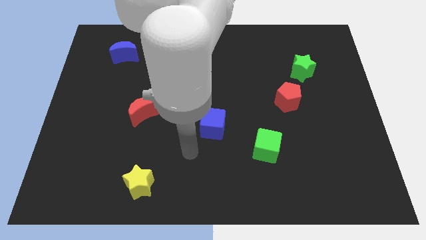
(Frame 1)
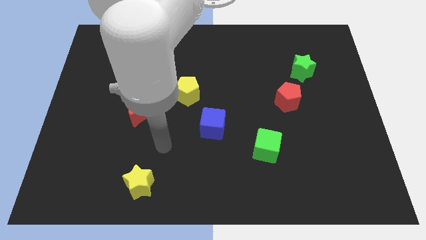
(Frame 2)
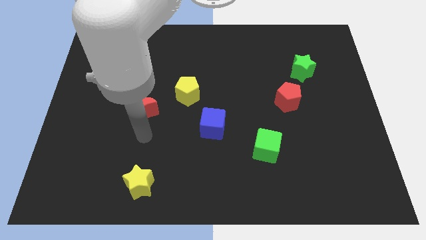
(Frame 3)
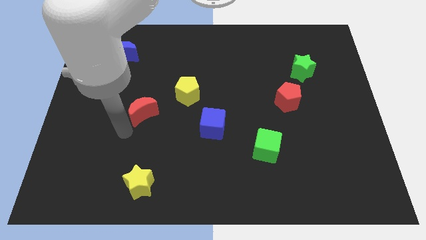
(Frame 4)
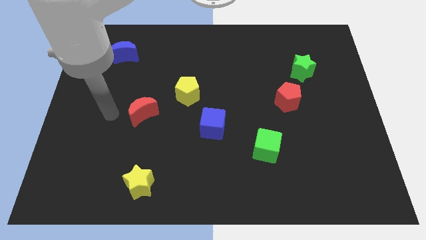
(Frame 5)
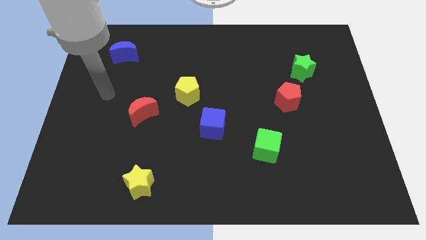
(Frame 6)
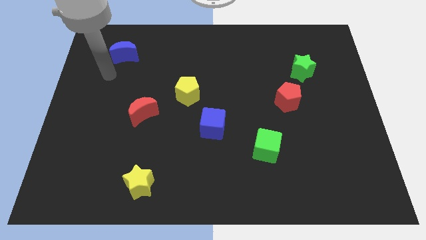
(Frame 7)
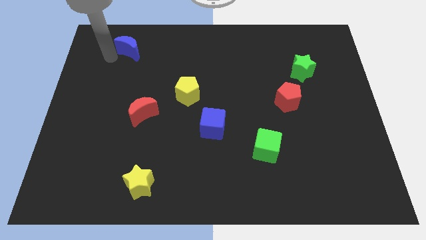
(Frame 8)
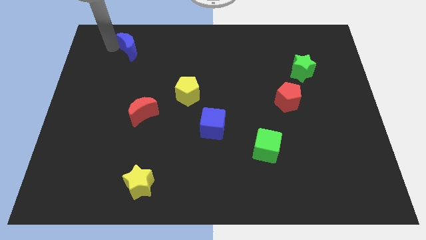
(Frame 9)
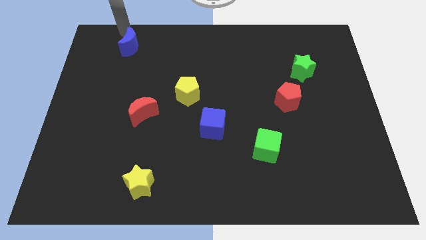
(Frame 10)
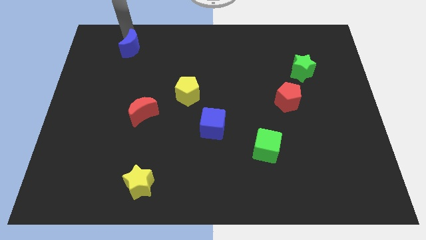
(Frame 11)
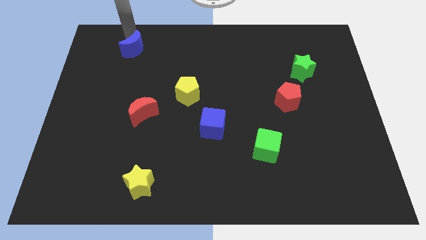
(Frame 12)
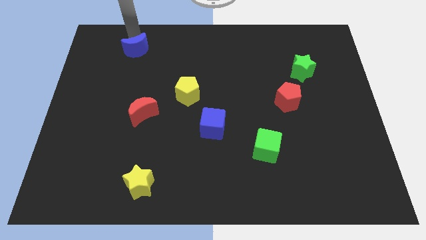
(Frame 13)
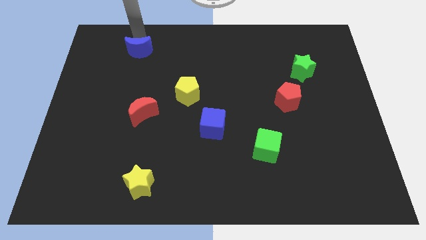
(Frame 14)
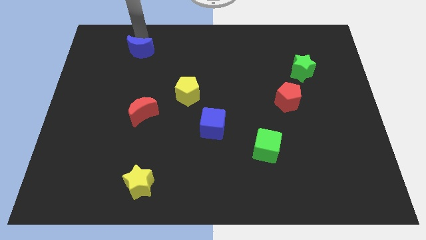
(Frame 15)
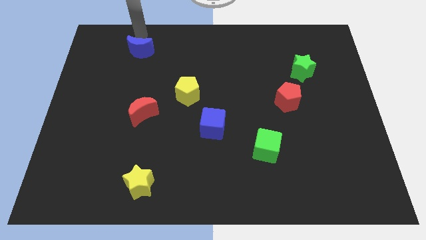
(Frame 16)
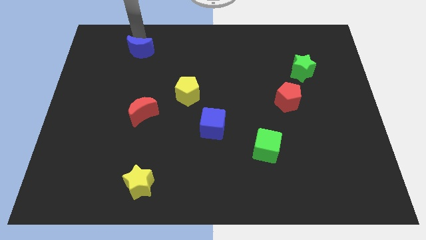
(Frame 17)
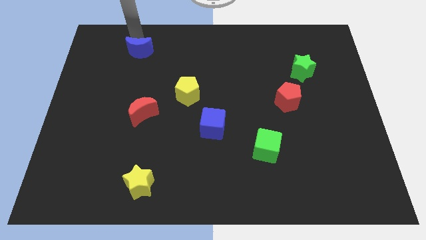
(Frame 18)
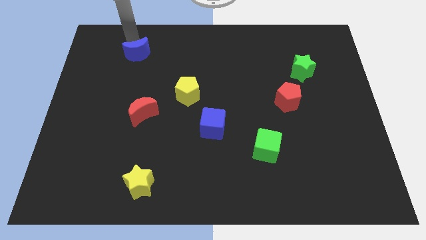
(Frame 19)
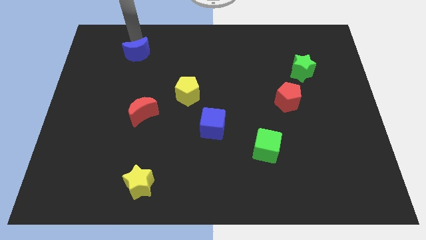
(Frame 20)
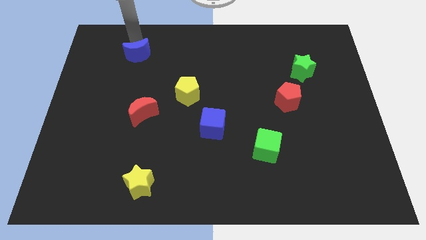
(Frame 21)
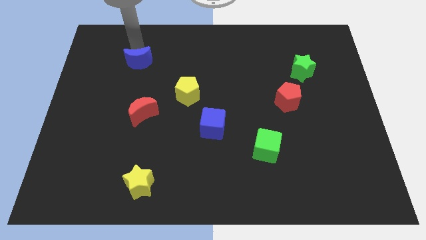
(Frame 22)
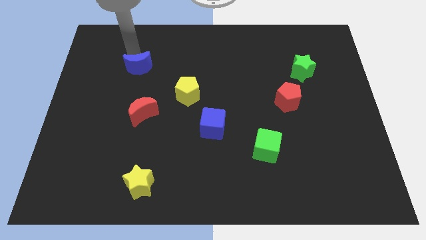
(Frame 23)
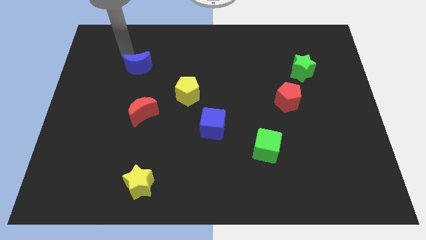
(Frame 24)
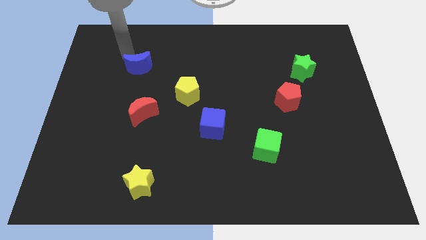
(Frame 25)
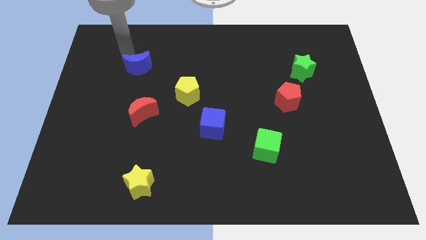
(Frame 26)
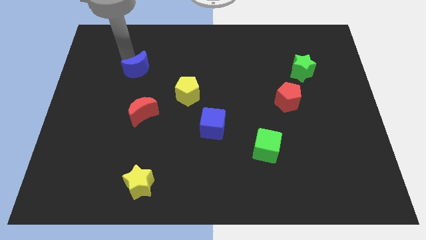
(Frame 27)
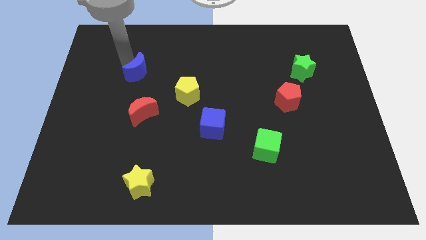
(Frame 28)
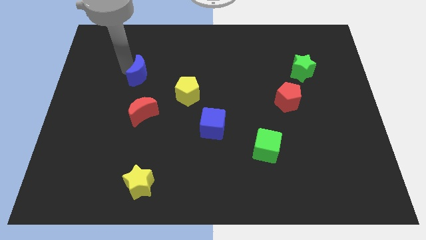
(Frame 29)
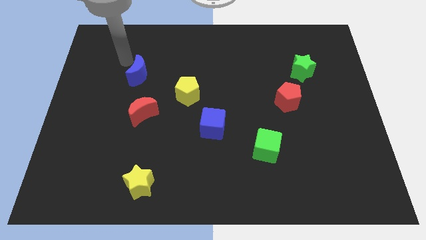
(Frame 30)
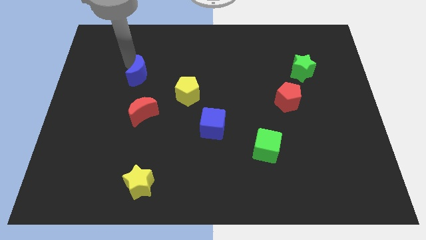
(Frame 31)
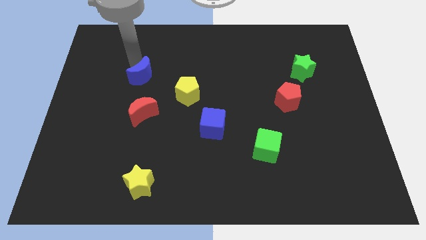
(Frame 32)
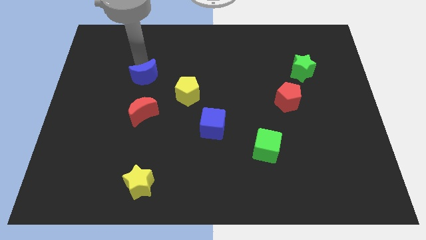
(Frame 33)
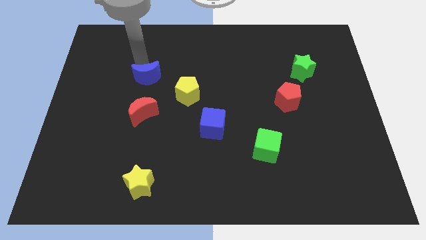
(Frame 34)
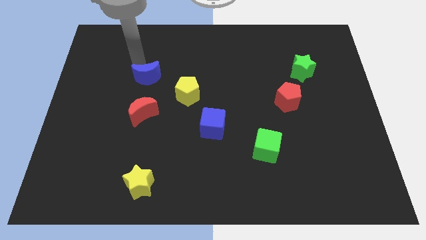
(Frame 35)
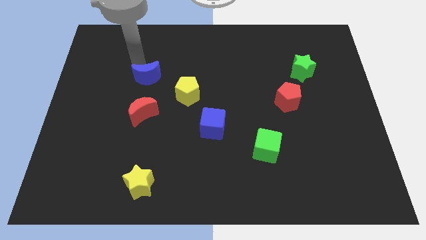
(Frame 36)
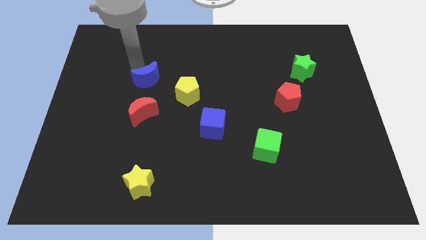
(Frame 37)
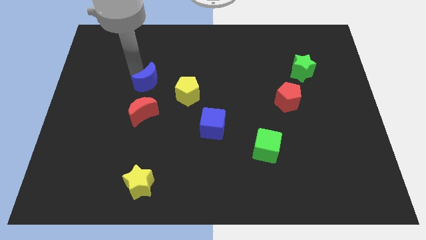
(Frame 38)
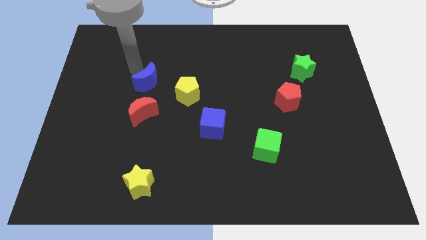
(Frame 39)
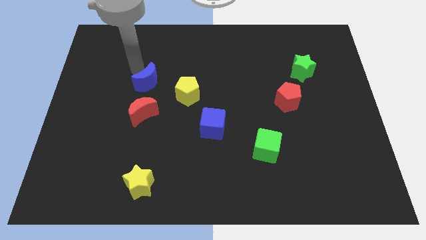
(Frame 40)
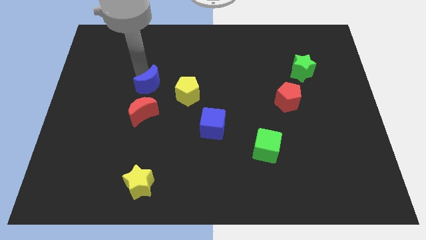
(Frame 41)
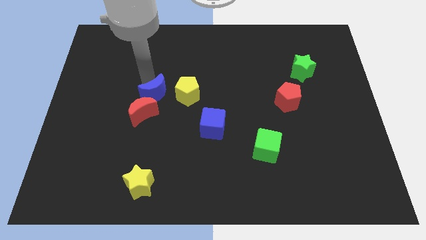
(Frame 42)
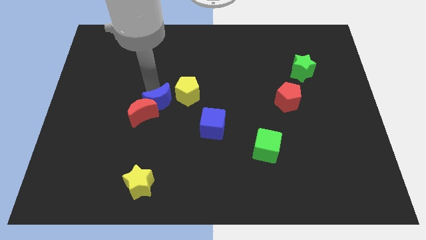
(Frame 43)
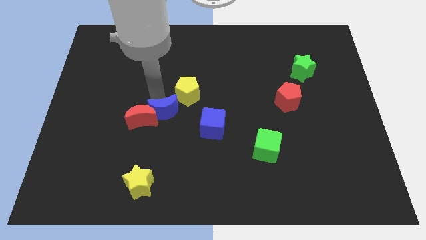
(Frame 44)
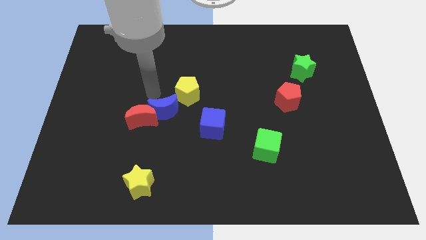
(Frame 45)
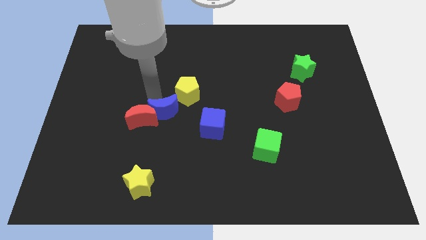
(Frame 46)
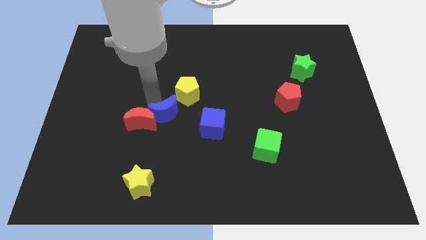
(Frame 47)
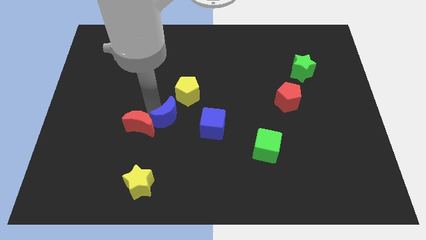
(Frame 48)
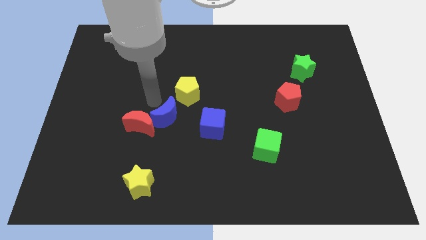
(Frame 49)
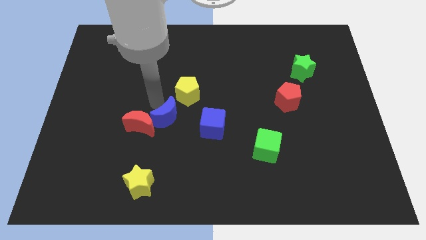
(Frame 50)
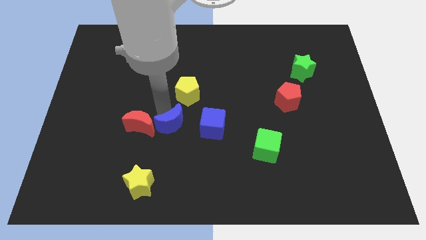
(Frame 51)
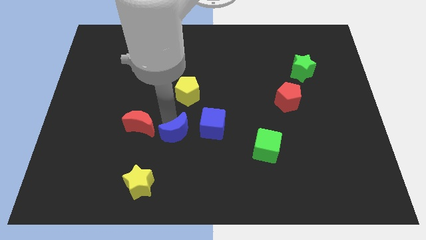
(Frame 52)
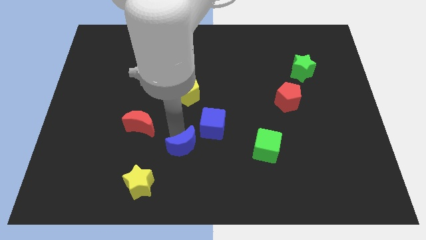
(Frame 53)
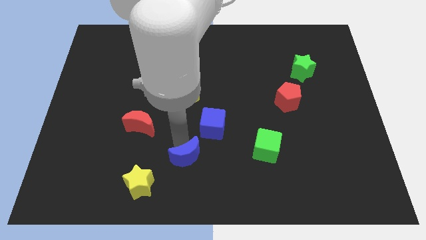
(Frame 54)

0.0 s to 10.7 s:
put the blue moon to the bottom side

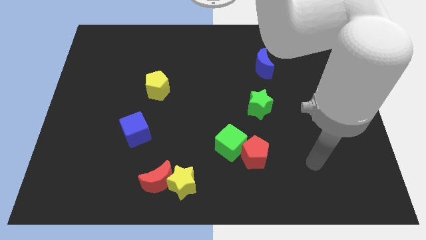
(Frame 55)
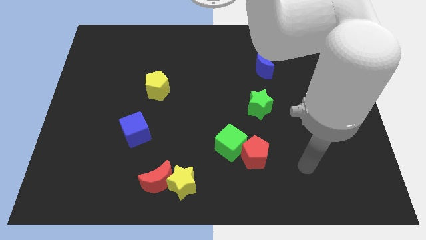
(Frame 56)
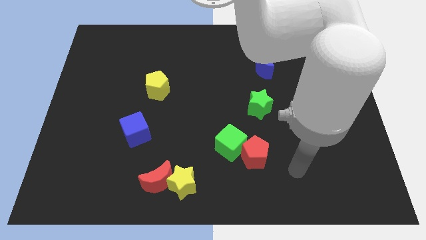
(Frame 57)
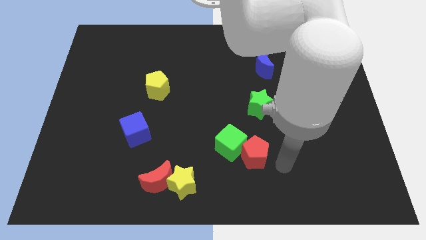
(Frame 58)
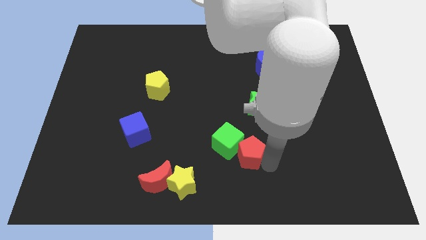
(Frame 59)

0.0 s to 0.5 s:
move the green cube to the middle

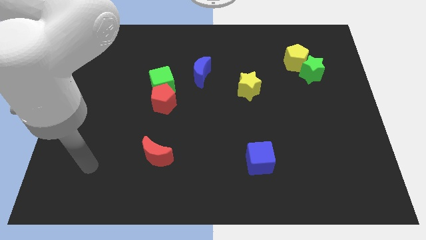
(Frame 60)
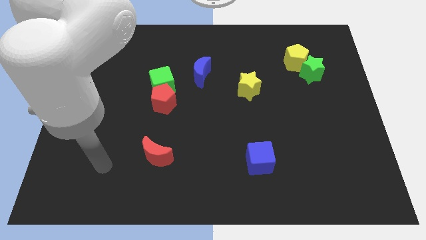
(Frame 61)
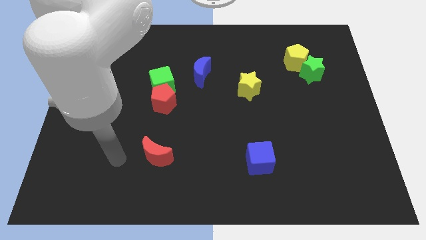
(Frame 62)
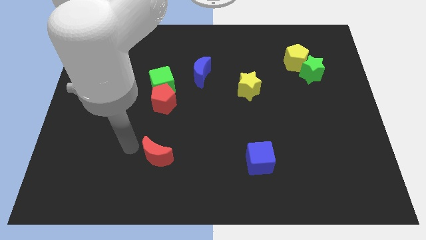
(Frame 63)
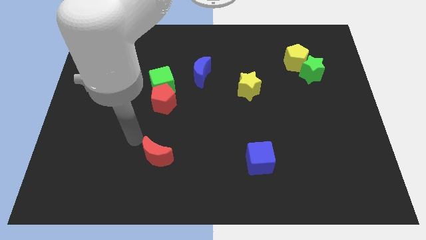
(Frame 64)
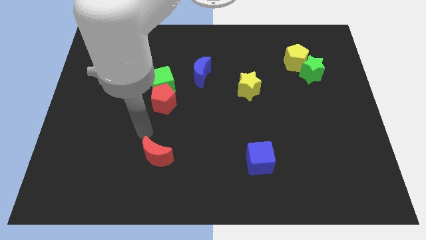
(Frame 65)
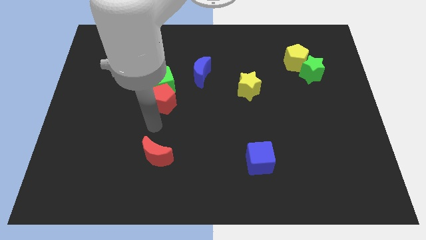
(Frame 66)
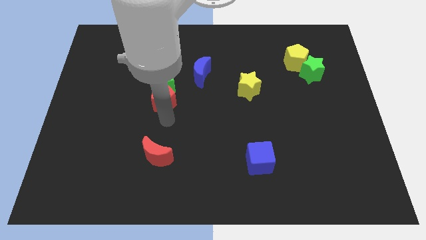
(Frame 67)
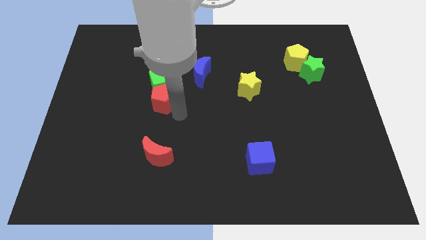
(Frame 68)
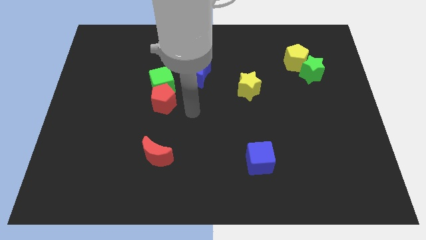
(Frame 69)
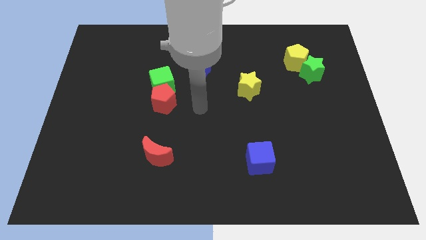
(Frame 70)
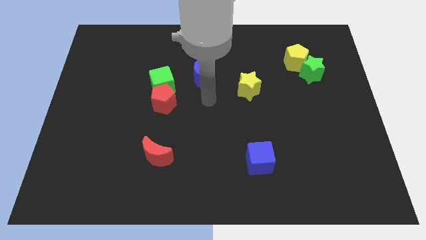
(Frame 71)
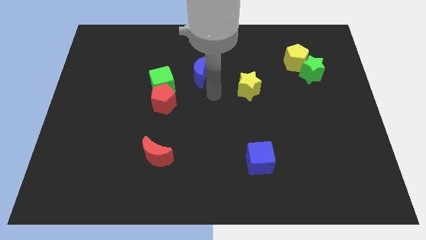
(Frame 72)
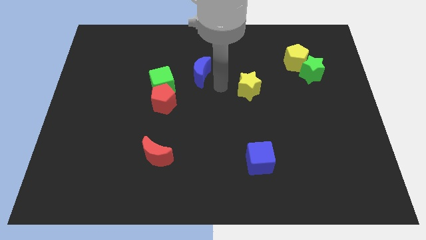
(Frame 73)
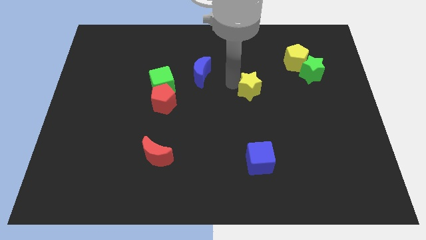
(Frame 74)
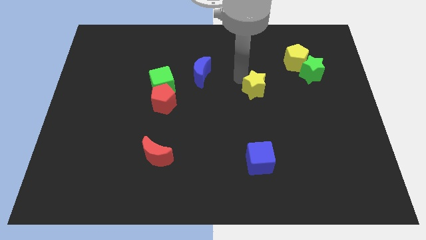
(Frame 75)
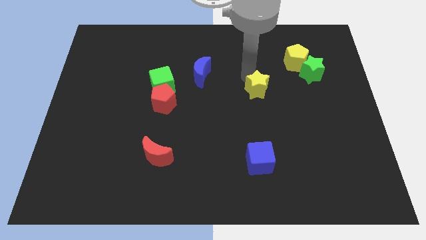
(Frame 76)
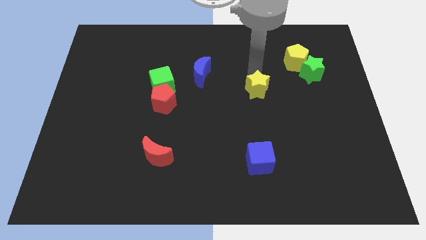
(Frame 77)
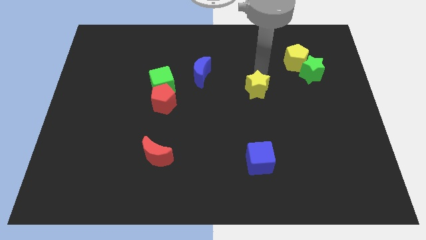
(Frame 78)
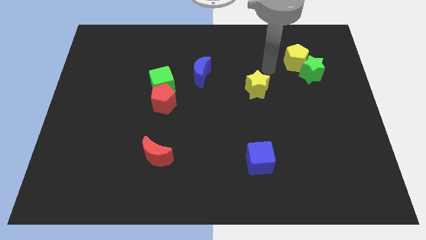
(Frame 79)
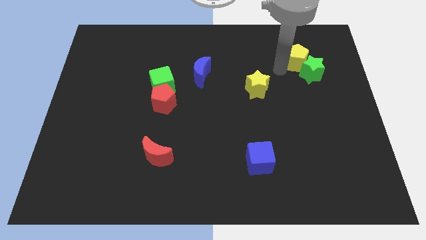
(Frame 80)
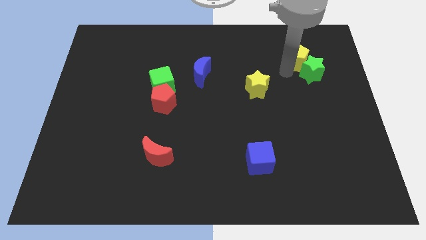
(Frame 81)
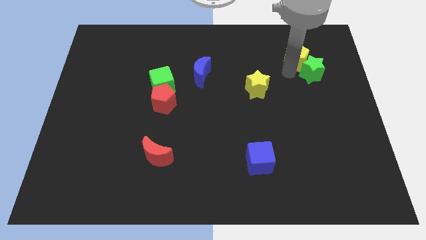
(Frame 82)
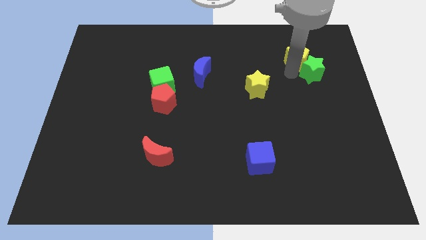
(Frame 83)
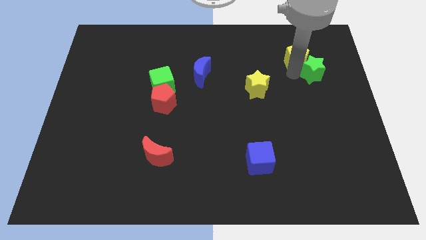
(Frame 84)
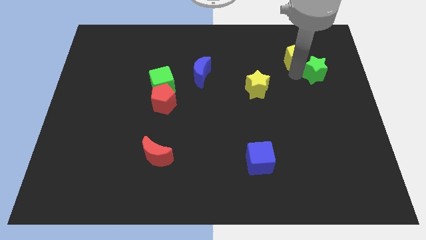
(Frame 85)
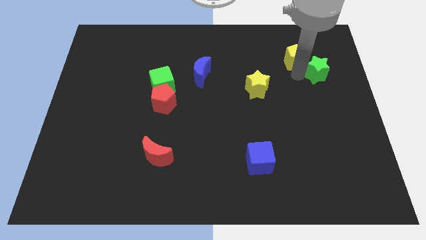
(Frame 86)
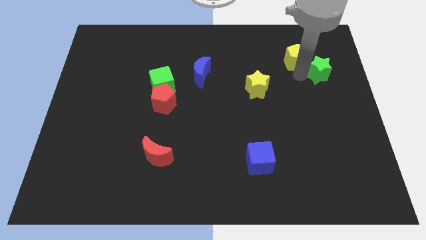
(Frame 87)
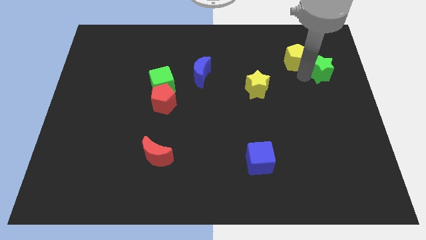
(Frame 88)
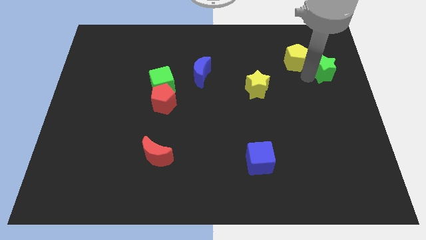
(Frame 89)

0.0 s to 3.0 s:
push the green star to the right side
